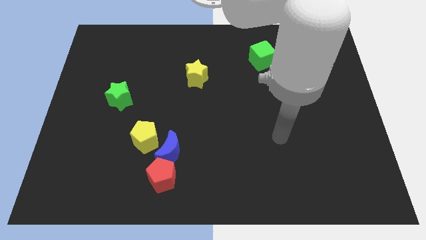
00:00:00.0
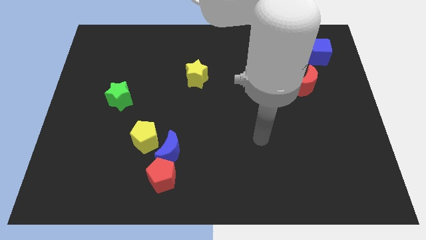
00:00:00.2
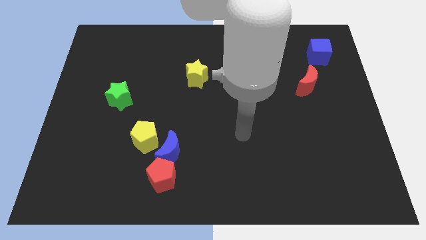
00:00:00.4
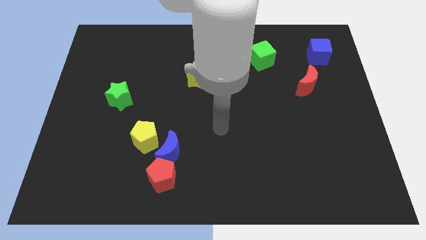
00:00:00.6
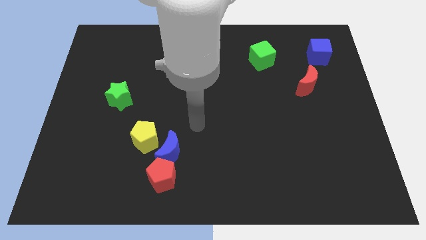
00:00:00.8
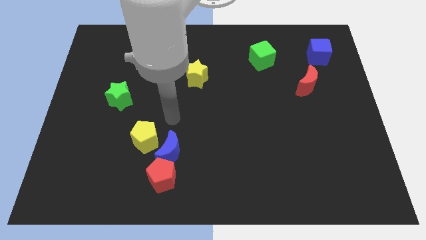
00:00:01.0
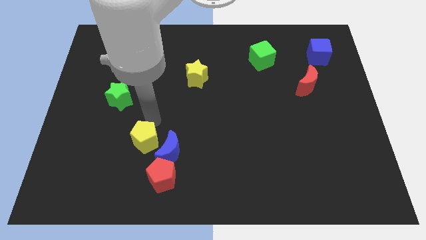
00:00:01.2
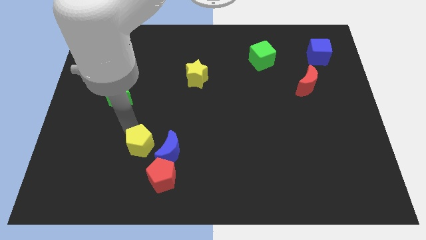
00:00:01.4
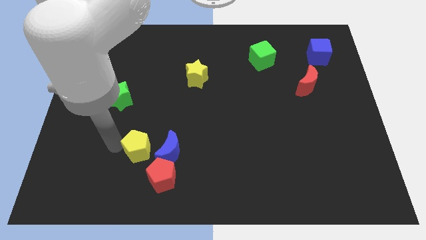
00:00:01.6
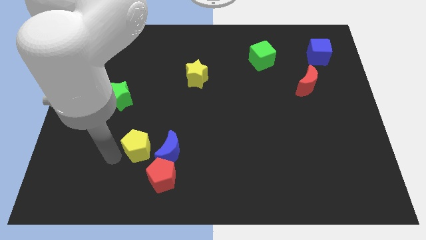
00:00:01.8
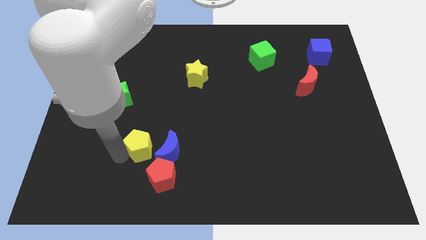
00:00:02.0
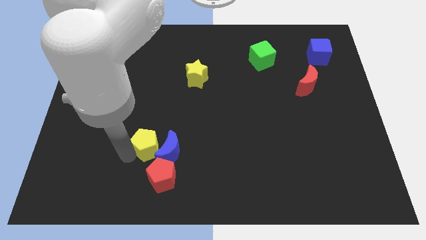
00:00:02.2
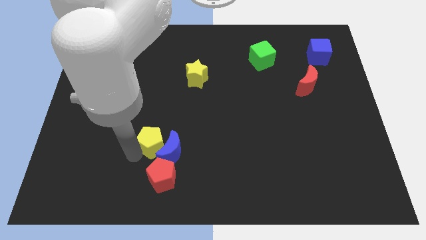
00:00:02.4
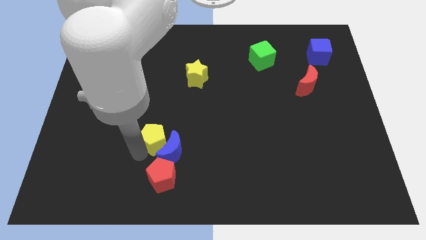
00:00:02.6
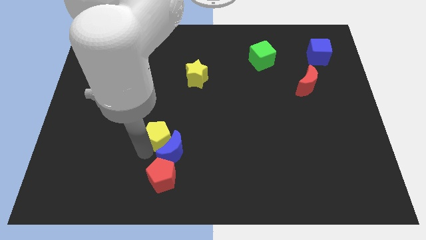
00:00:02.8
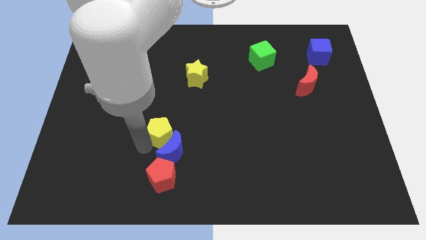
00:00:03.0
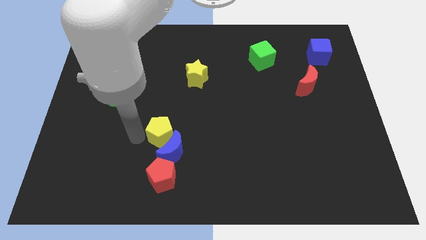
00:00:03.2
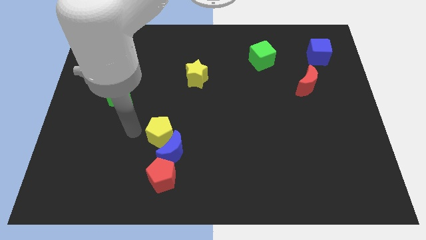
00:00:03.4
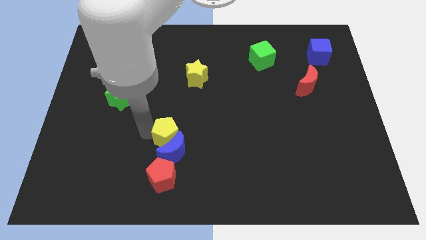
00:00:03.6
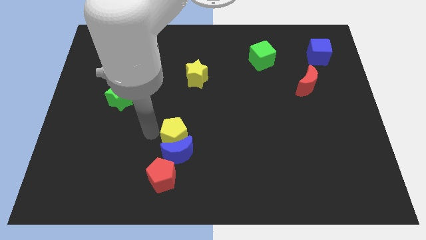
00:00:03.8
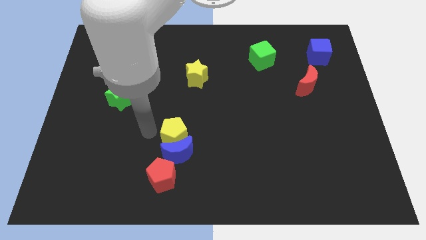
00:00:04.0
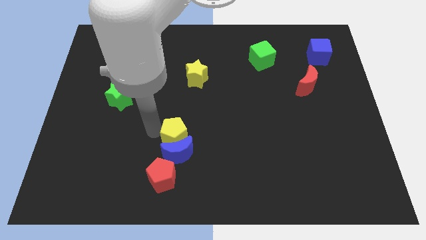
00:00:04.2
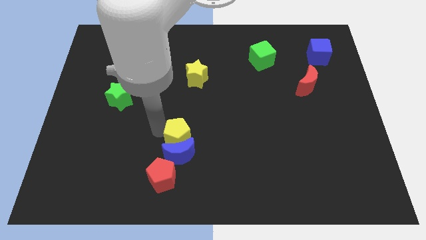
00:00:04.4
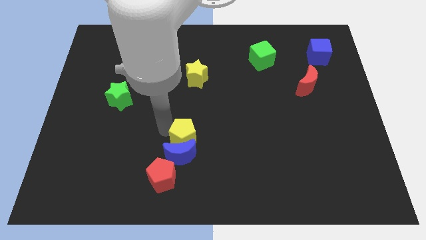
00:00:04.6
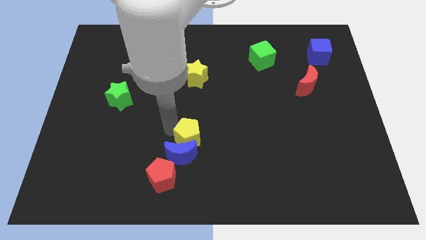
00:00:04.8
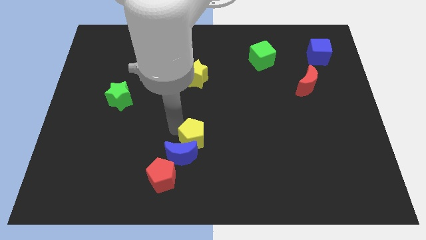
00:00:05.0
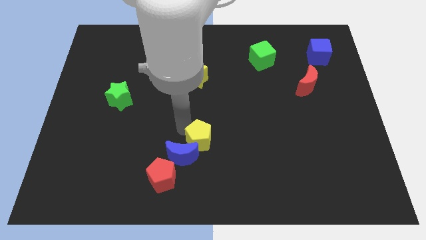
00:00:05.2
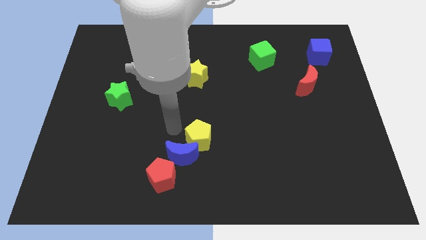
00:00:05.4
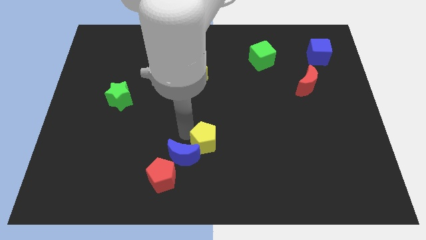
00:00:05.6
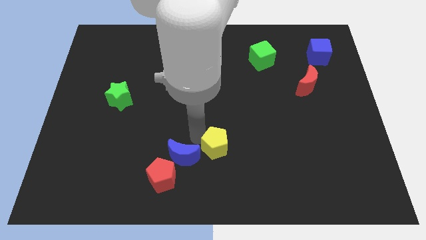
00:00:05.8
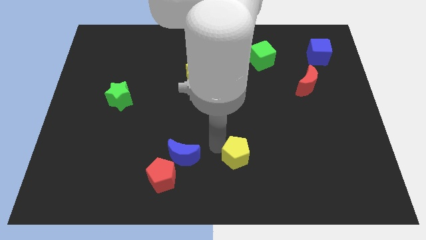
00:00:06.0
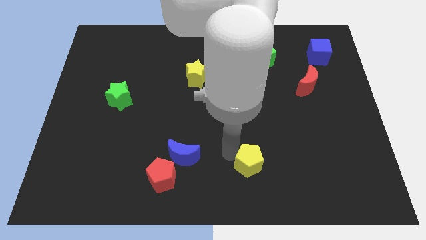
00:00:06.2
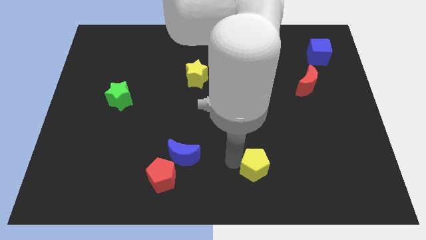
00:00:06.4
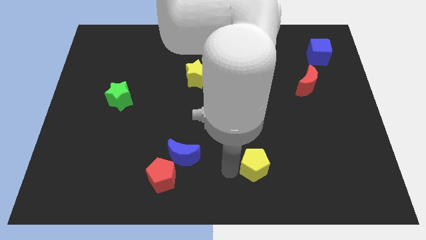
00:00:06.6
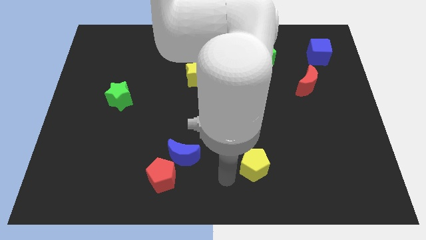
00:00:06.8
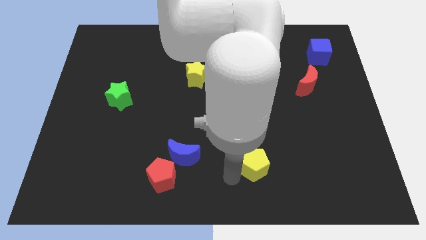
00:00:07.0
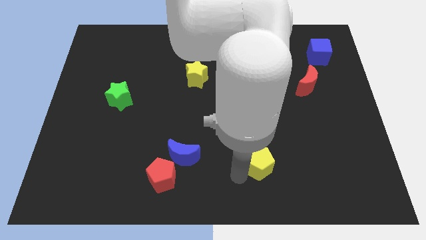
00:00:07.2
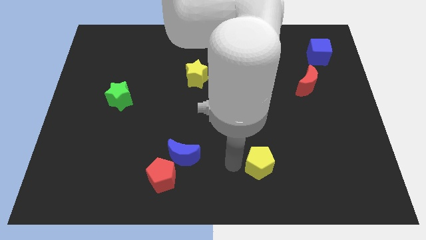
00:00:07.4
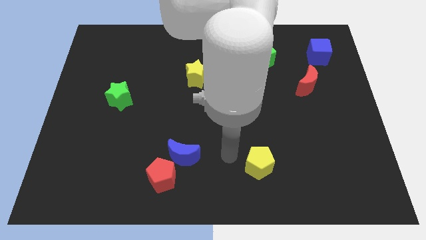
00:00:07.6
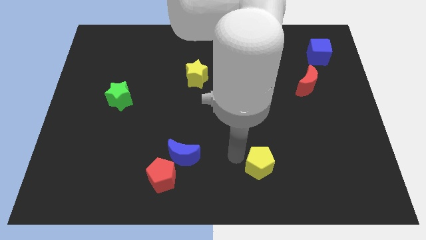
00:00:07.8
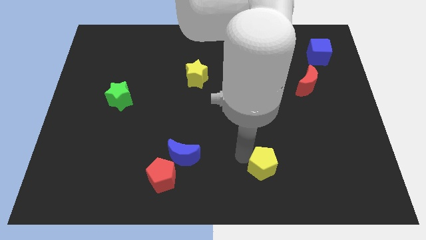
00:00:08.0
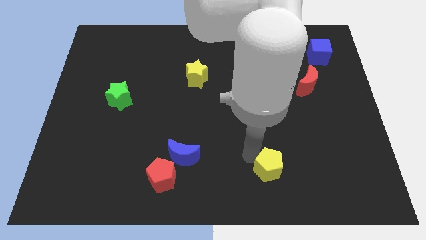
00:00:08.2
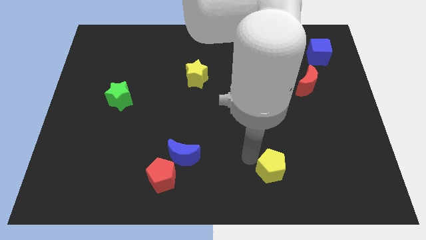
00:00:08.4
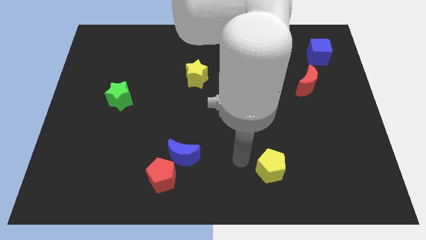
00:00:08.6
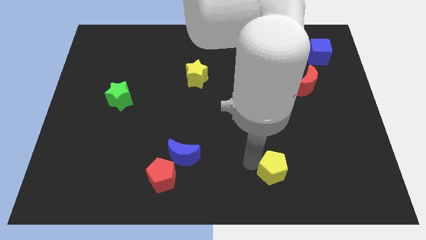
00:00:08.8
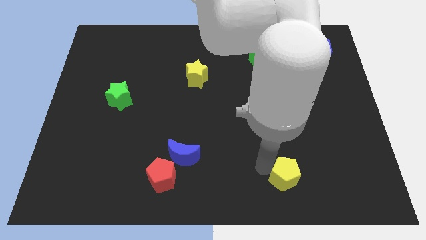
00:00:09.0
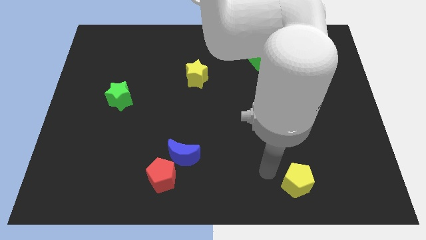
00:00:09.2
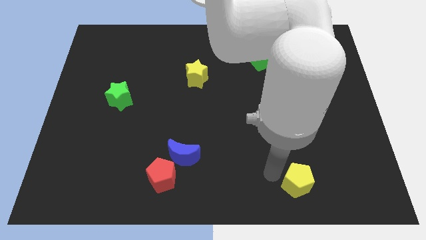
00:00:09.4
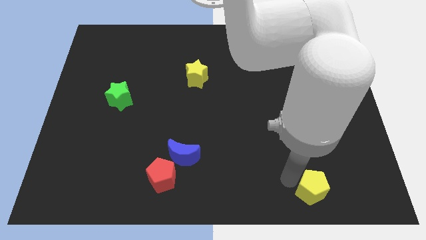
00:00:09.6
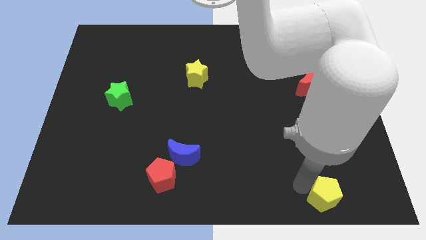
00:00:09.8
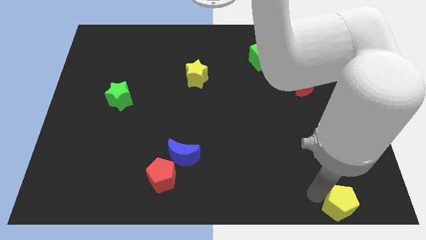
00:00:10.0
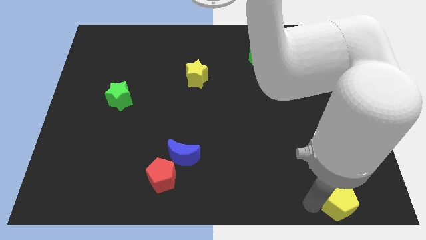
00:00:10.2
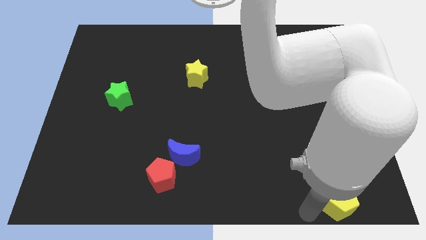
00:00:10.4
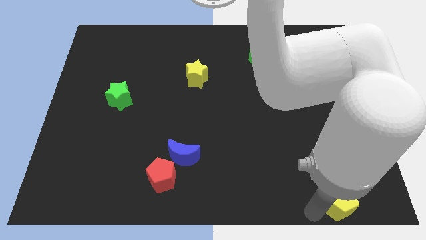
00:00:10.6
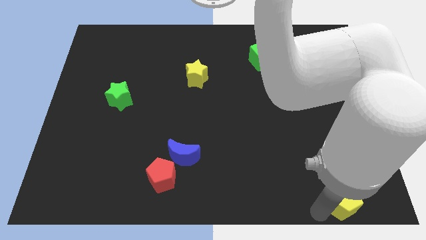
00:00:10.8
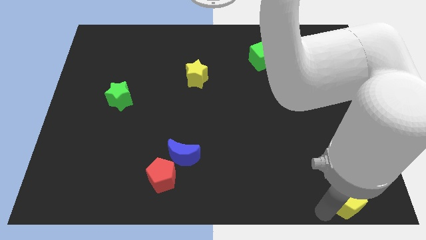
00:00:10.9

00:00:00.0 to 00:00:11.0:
slide the yellow pentagon to the bottom right corner

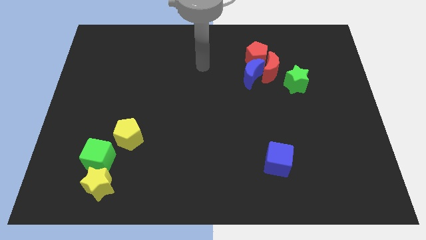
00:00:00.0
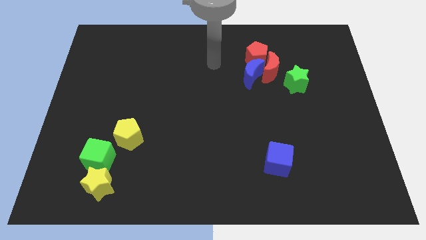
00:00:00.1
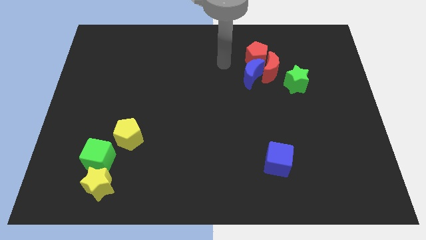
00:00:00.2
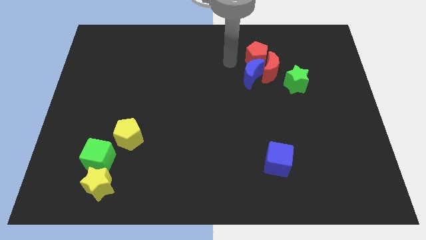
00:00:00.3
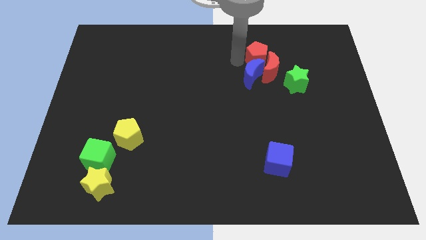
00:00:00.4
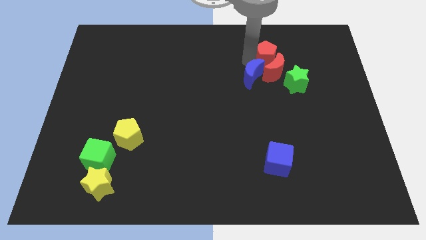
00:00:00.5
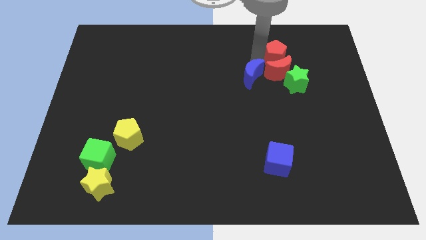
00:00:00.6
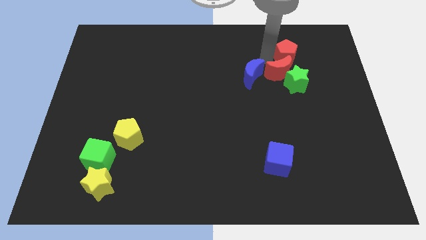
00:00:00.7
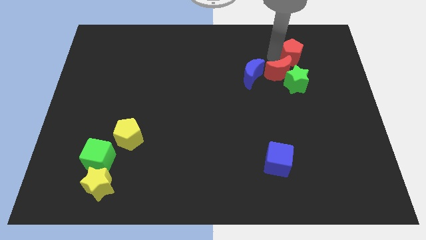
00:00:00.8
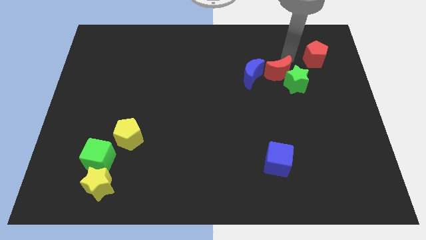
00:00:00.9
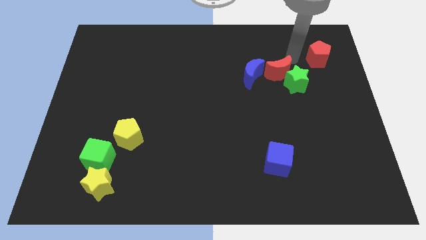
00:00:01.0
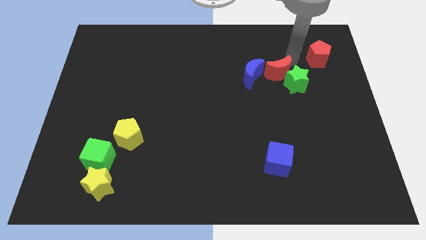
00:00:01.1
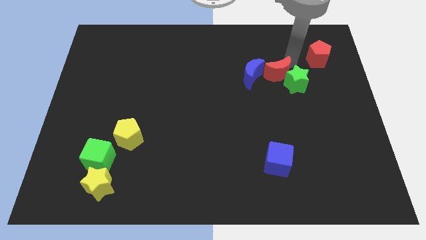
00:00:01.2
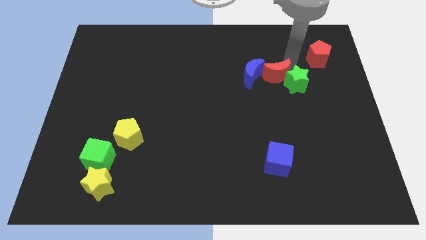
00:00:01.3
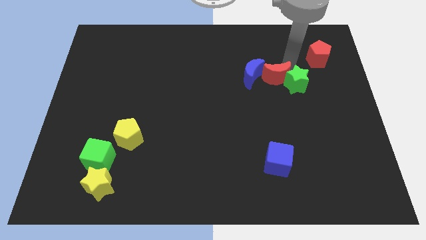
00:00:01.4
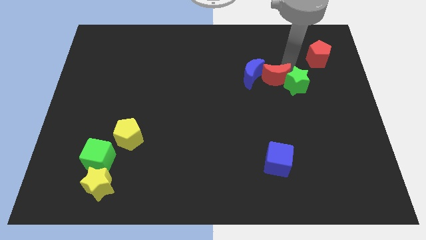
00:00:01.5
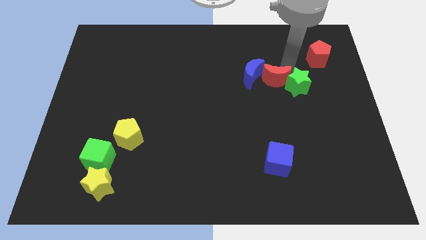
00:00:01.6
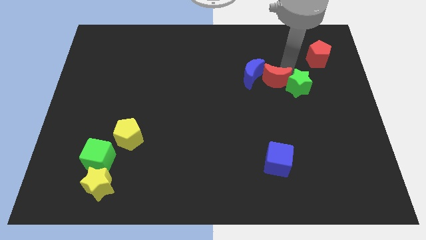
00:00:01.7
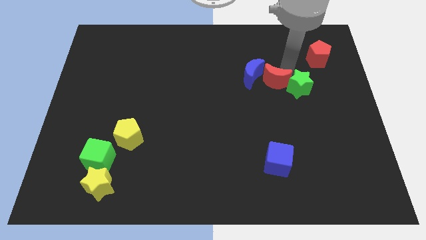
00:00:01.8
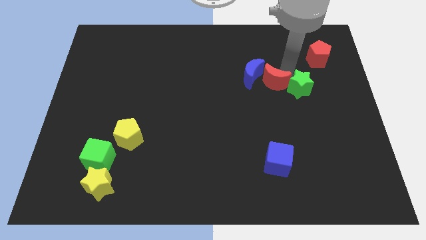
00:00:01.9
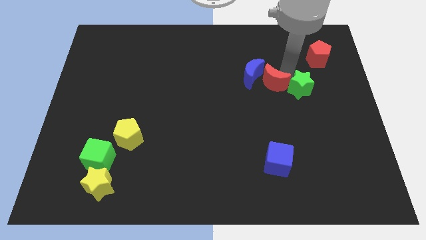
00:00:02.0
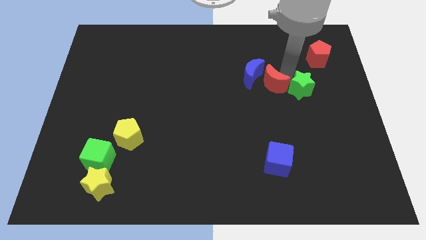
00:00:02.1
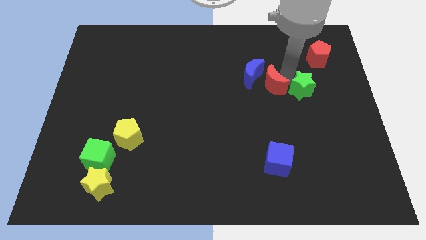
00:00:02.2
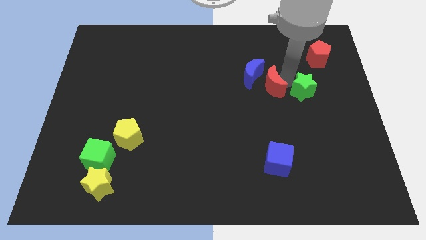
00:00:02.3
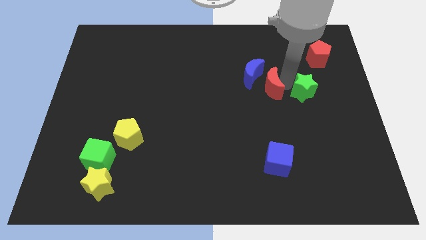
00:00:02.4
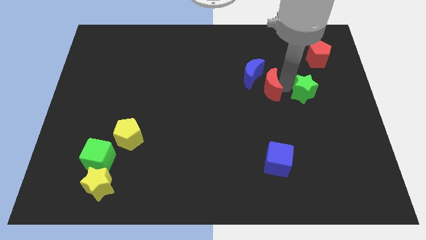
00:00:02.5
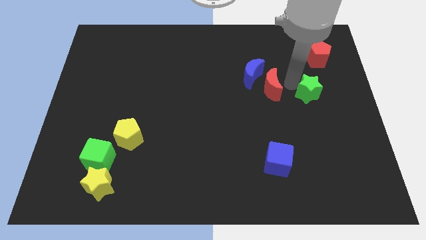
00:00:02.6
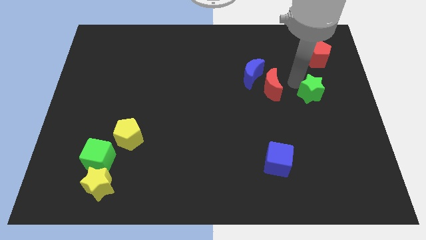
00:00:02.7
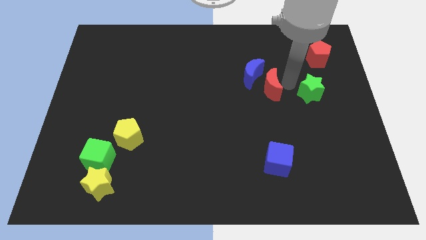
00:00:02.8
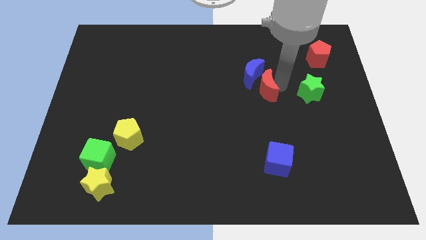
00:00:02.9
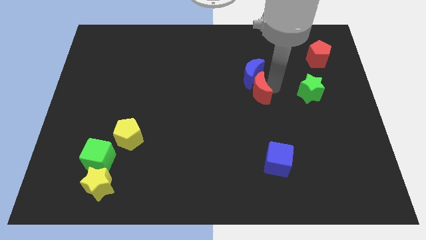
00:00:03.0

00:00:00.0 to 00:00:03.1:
put the red moon to the middle of the board
